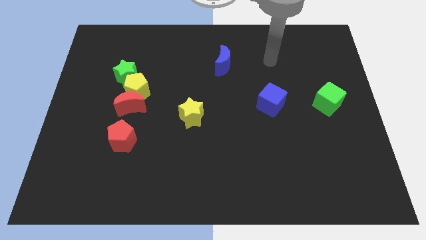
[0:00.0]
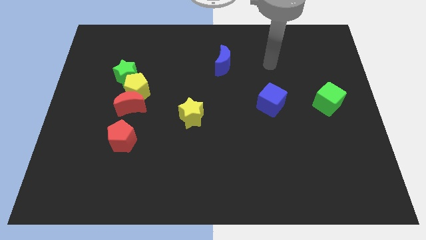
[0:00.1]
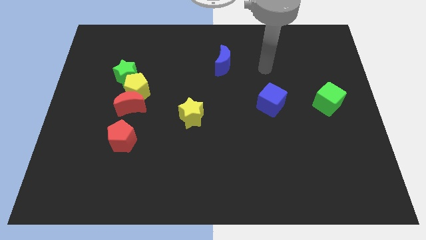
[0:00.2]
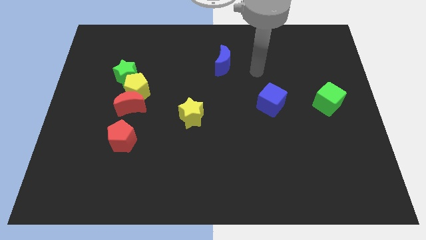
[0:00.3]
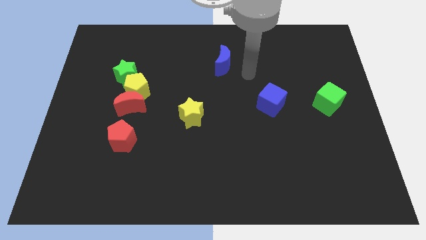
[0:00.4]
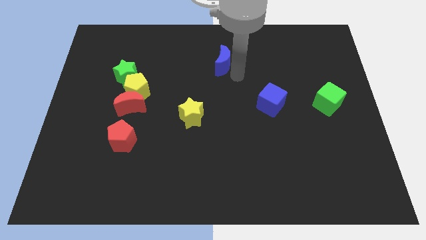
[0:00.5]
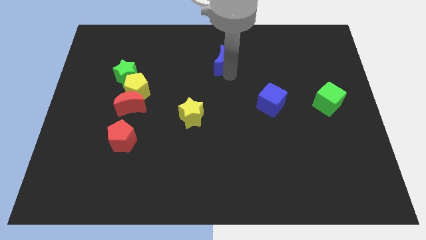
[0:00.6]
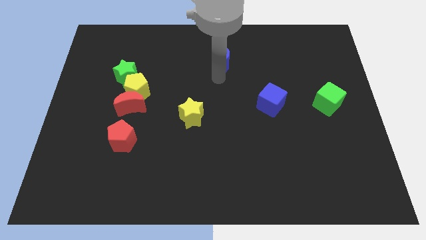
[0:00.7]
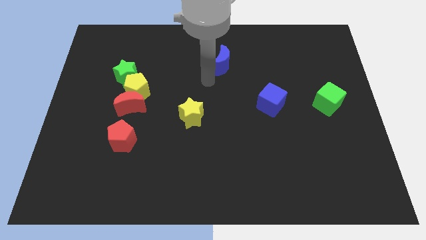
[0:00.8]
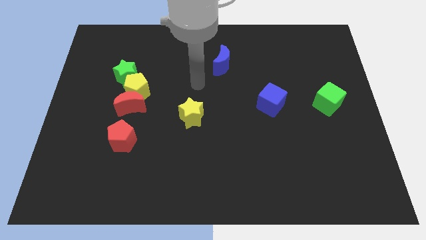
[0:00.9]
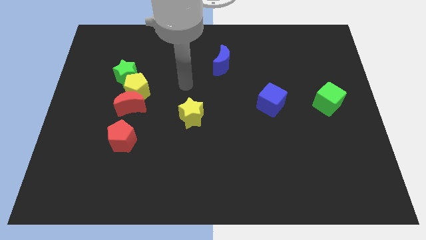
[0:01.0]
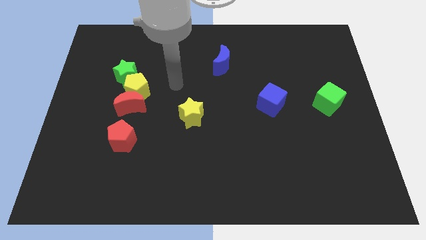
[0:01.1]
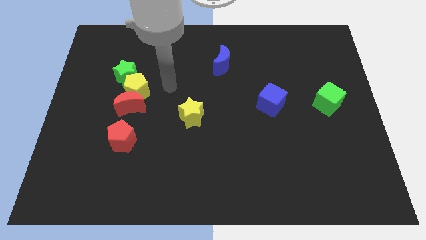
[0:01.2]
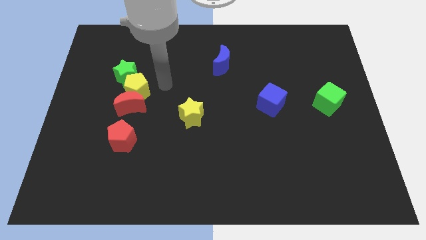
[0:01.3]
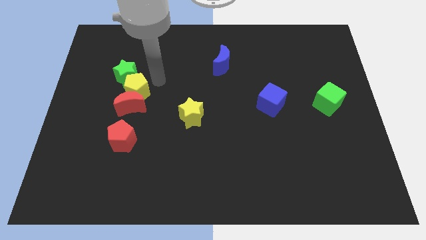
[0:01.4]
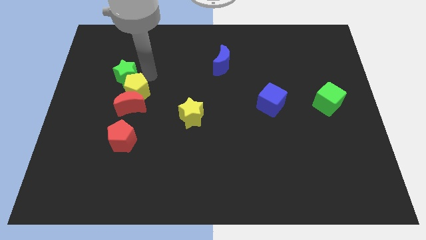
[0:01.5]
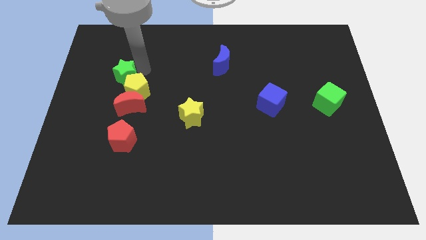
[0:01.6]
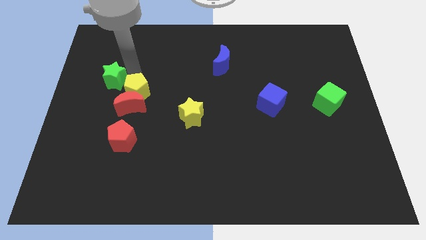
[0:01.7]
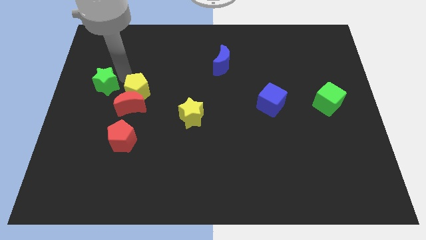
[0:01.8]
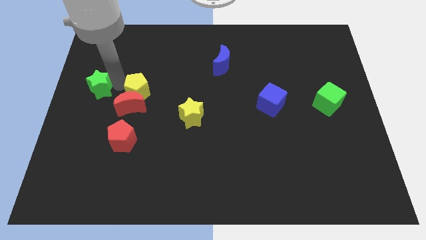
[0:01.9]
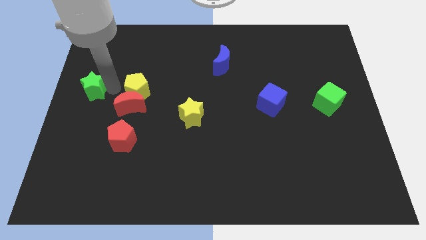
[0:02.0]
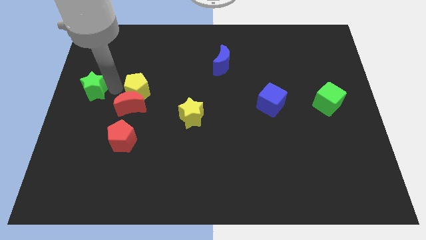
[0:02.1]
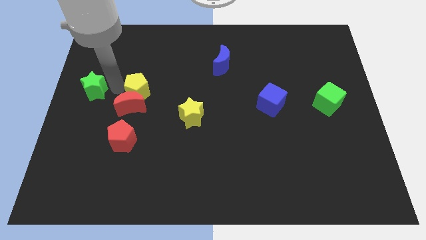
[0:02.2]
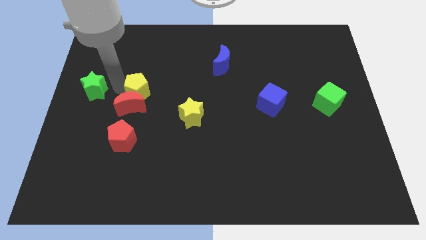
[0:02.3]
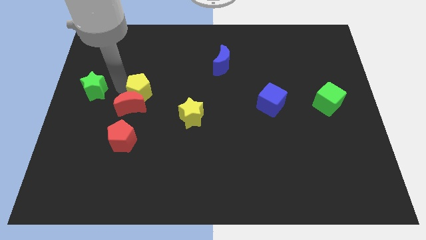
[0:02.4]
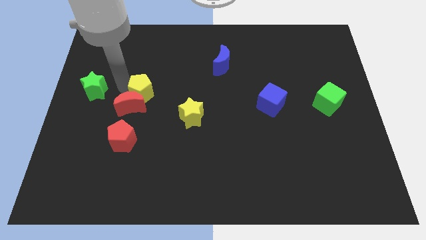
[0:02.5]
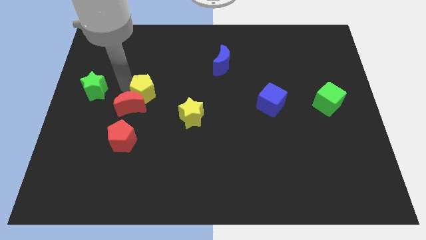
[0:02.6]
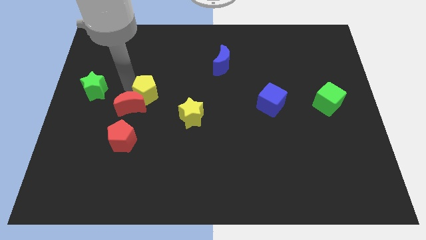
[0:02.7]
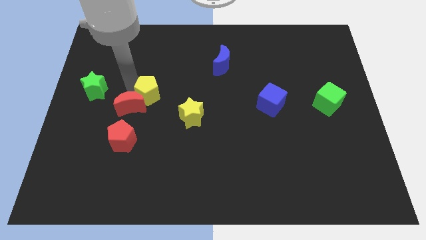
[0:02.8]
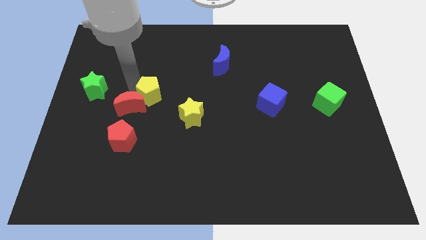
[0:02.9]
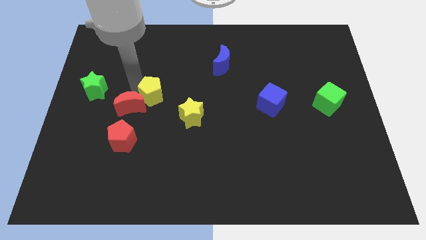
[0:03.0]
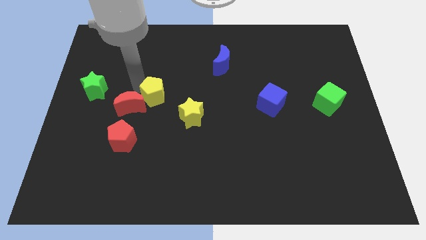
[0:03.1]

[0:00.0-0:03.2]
separate the yellow pentagon from the red moon and green star

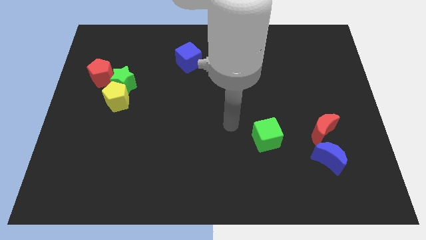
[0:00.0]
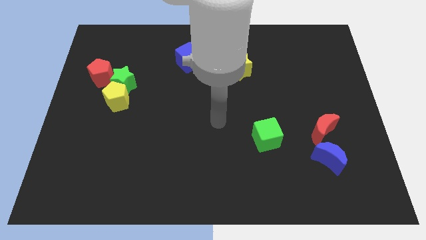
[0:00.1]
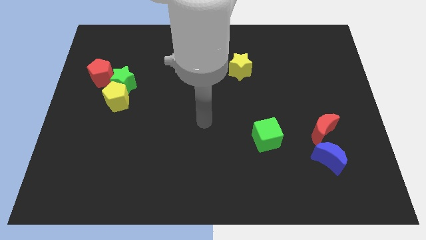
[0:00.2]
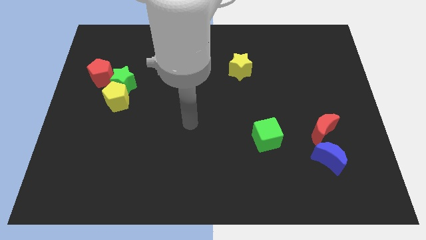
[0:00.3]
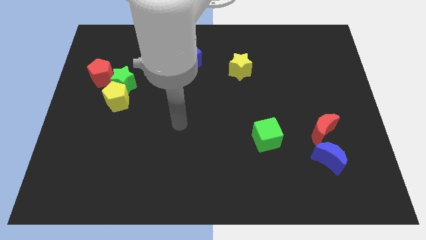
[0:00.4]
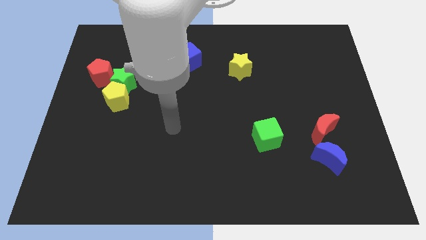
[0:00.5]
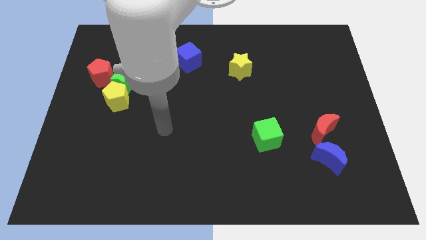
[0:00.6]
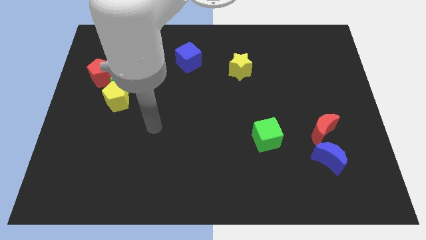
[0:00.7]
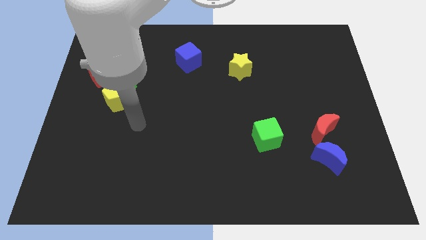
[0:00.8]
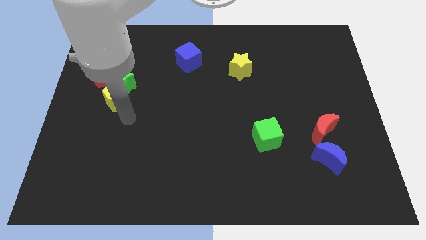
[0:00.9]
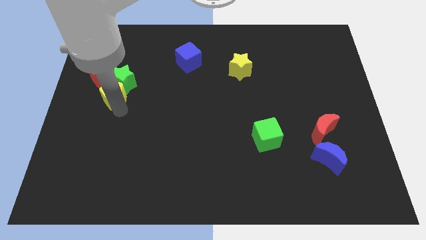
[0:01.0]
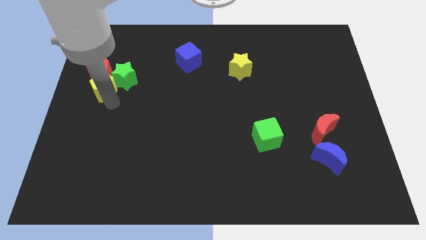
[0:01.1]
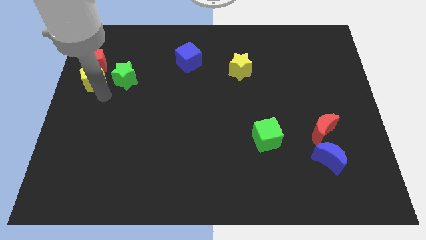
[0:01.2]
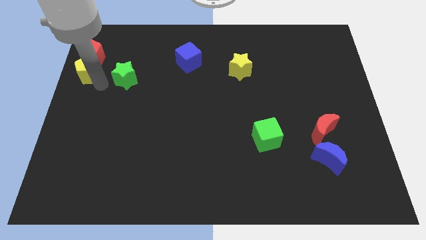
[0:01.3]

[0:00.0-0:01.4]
pull the green star apart from the yellow pentagon and red pentagon

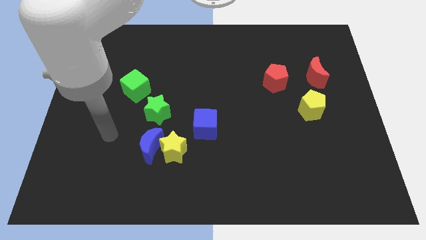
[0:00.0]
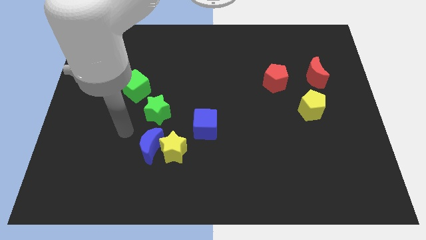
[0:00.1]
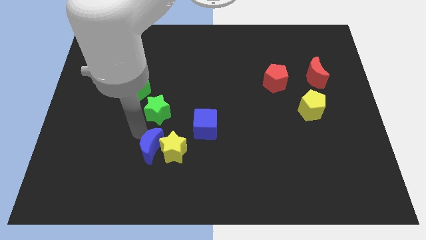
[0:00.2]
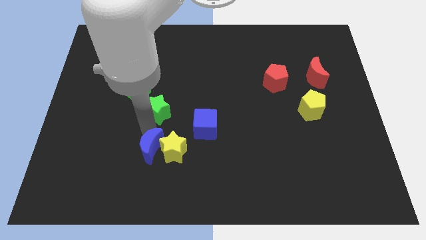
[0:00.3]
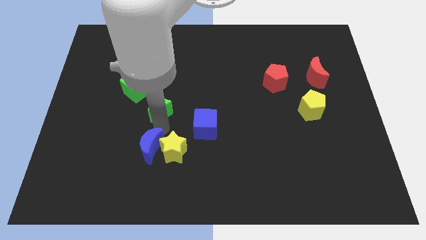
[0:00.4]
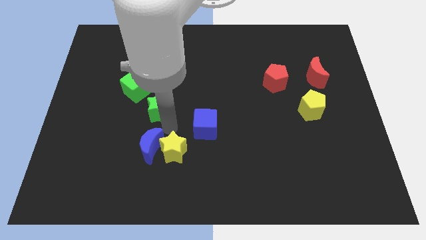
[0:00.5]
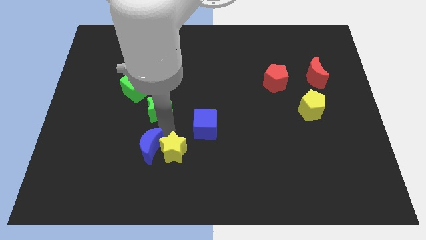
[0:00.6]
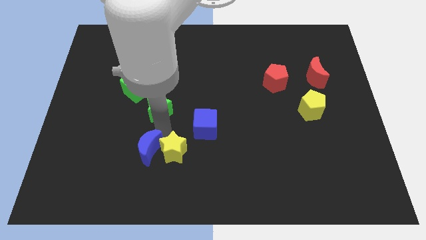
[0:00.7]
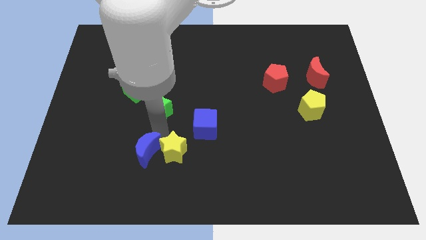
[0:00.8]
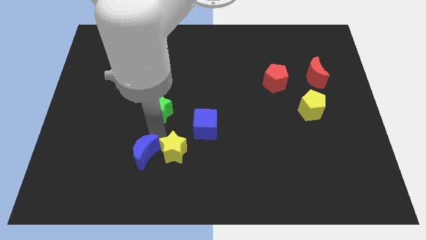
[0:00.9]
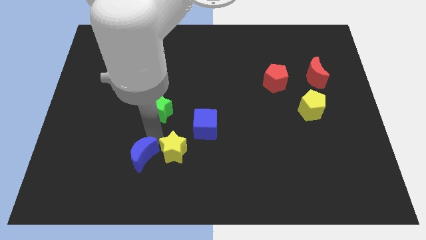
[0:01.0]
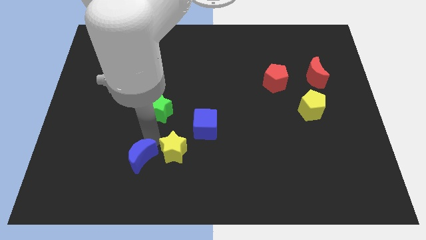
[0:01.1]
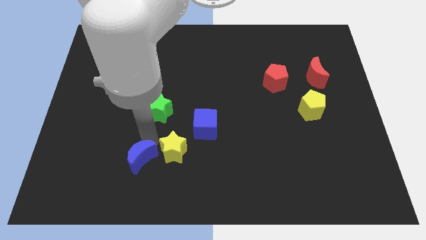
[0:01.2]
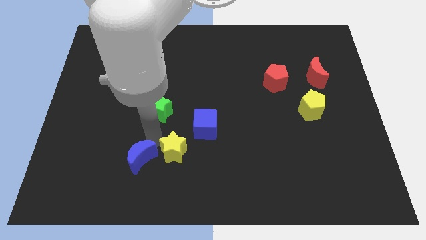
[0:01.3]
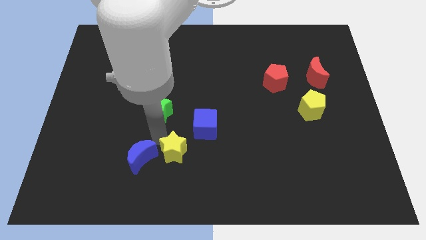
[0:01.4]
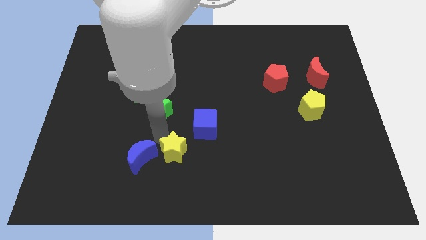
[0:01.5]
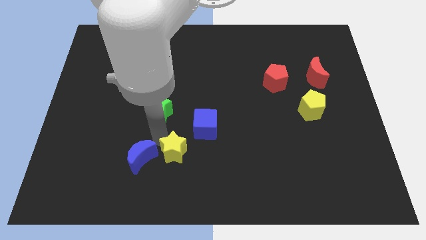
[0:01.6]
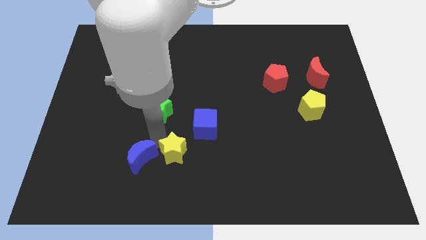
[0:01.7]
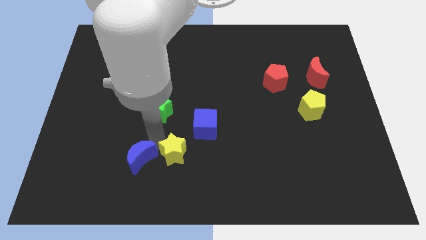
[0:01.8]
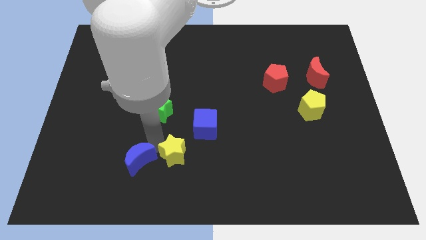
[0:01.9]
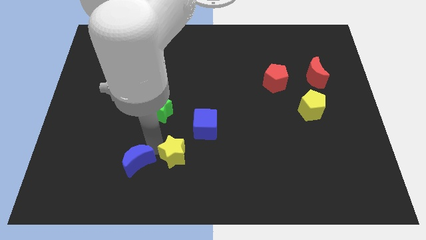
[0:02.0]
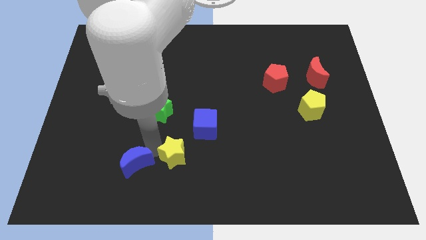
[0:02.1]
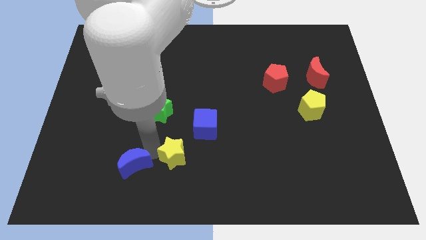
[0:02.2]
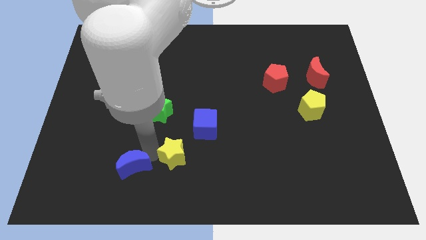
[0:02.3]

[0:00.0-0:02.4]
move the blue moon away from the yellow star and green star

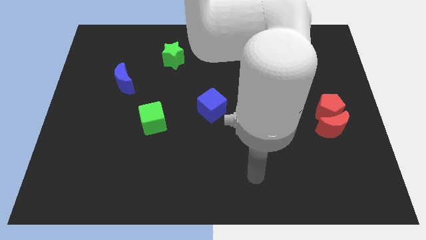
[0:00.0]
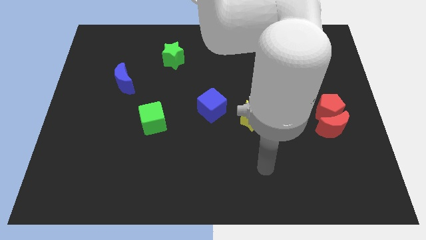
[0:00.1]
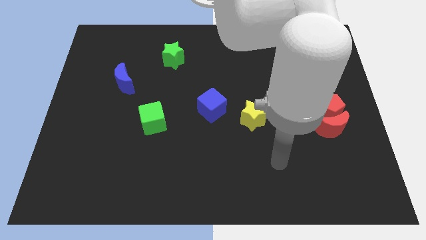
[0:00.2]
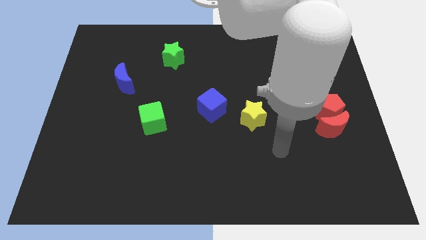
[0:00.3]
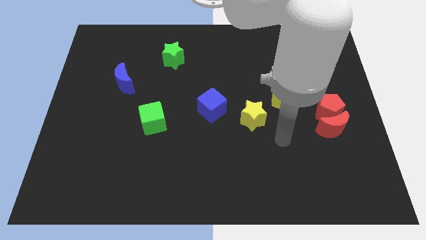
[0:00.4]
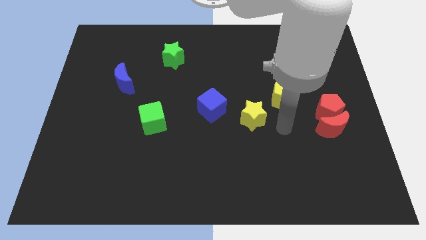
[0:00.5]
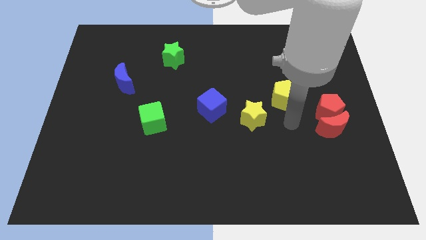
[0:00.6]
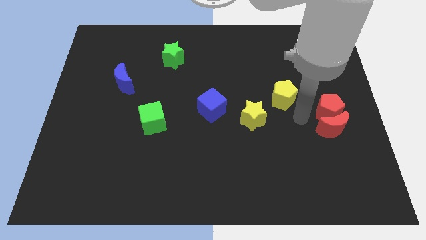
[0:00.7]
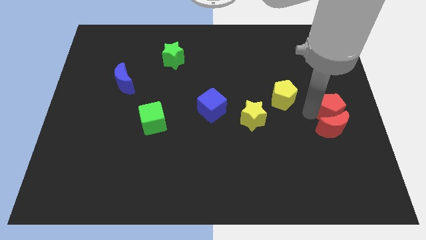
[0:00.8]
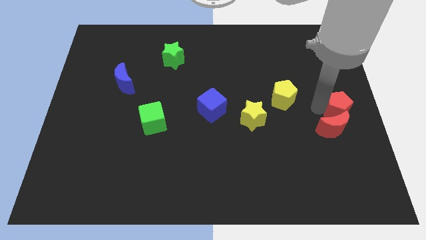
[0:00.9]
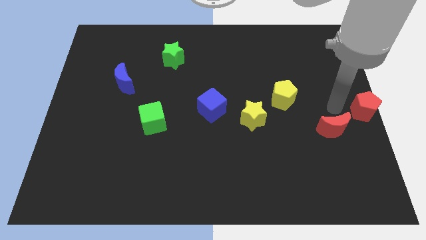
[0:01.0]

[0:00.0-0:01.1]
separate the red moon from the red pentagon

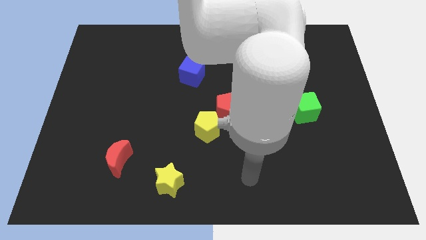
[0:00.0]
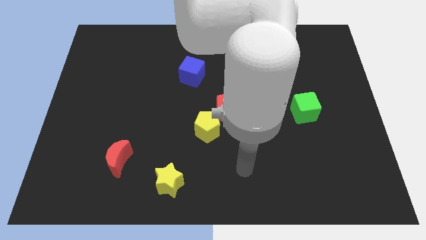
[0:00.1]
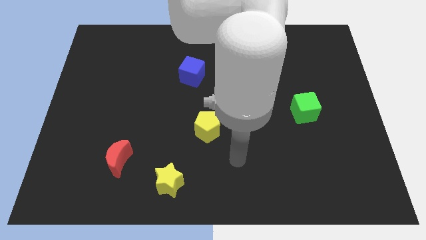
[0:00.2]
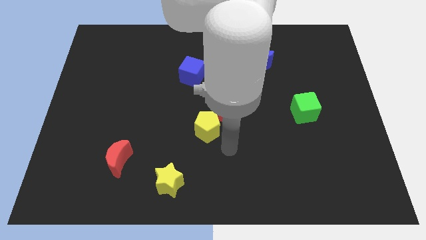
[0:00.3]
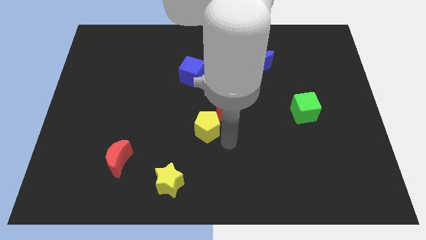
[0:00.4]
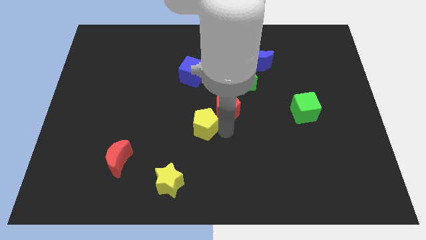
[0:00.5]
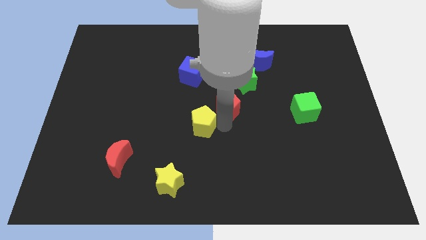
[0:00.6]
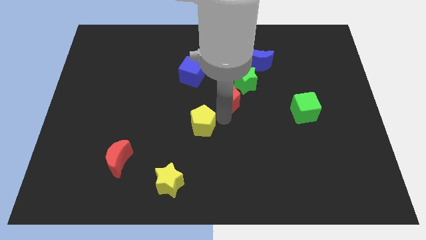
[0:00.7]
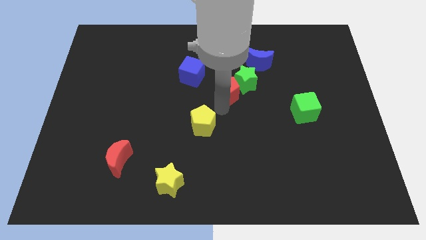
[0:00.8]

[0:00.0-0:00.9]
separate the yellow pentagon from the red pentagon

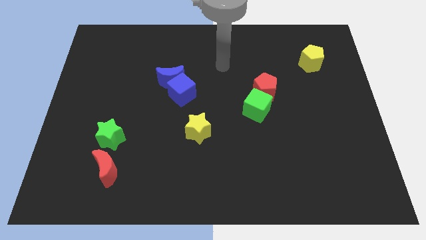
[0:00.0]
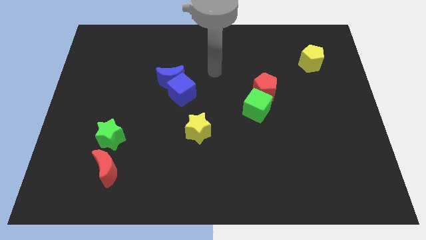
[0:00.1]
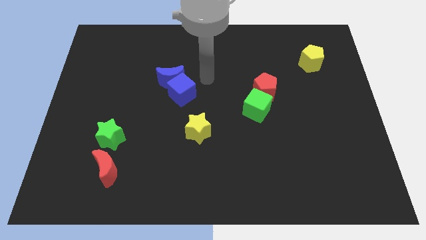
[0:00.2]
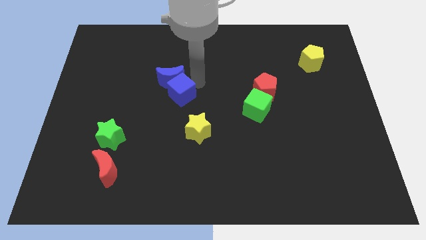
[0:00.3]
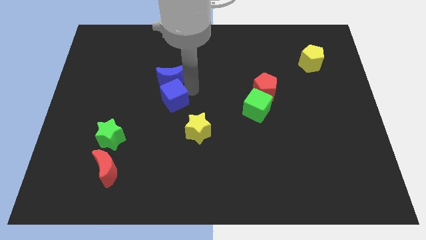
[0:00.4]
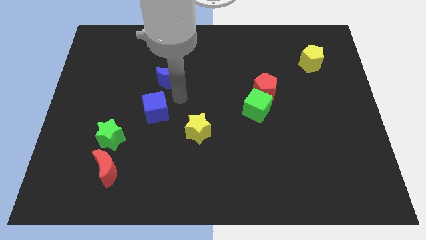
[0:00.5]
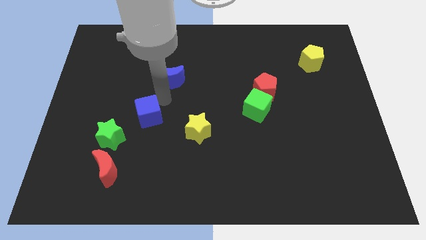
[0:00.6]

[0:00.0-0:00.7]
move the blue moon away from the blue cube
